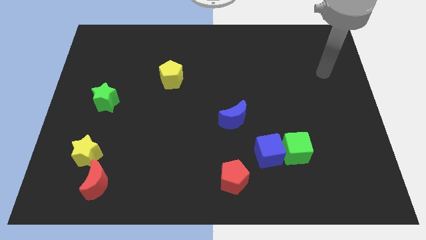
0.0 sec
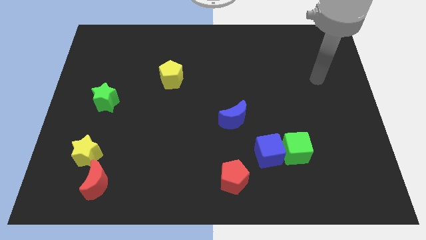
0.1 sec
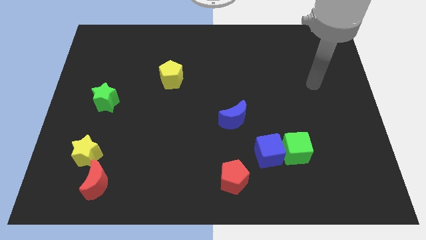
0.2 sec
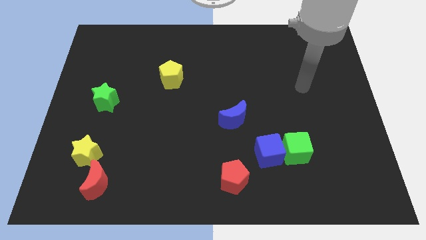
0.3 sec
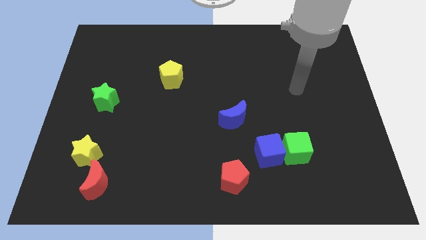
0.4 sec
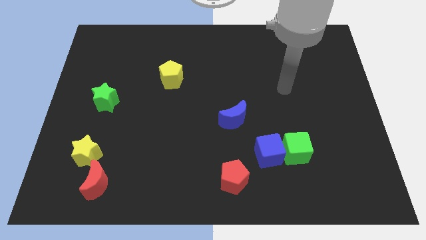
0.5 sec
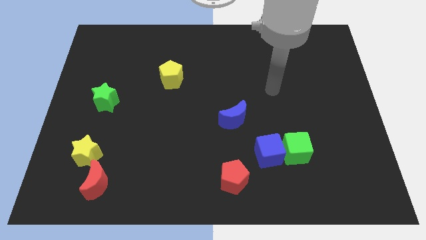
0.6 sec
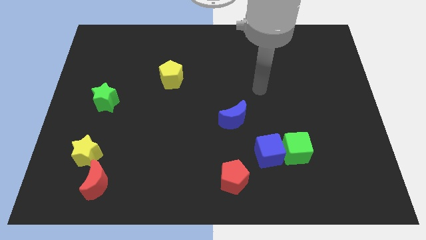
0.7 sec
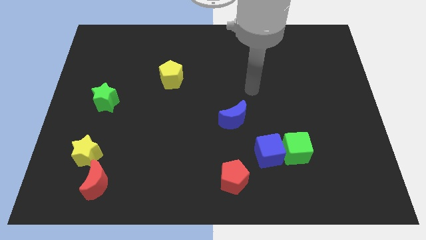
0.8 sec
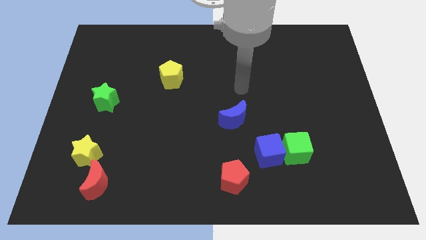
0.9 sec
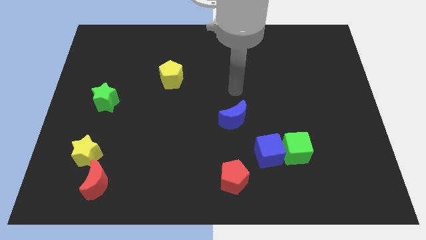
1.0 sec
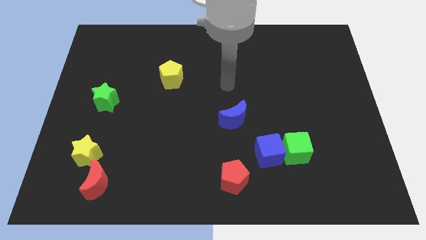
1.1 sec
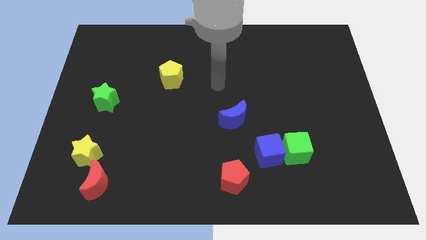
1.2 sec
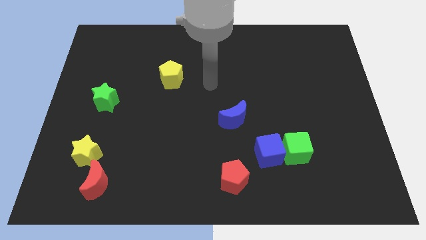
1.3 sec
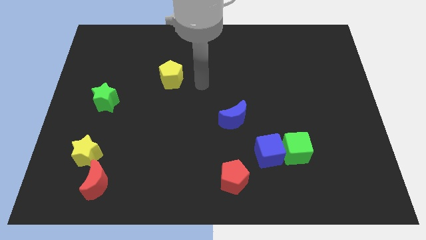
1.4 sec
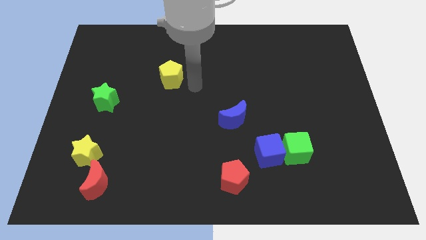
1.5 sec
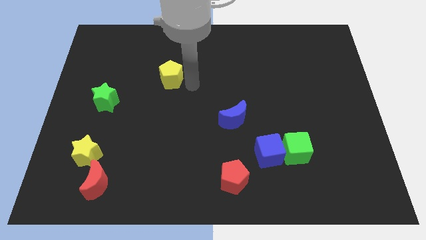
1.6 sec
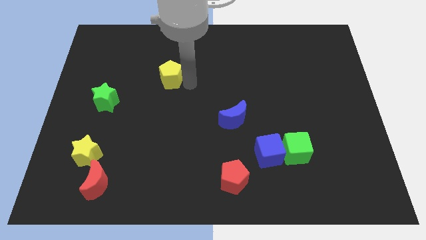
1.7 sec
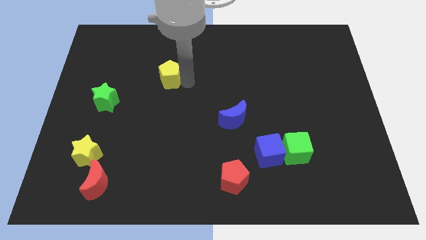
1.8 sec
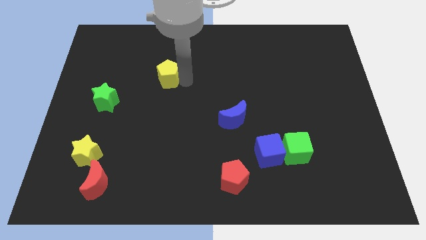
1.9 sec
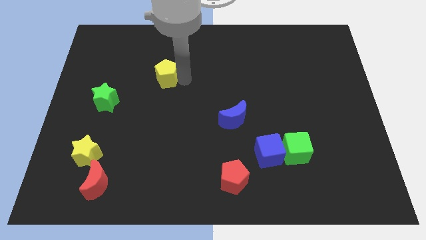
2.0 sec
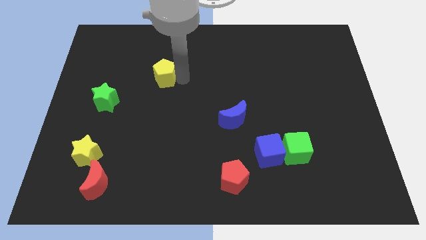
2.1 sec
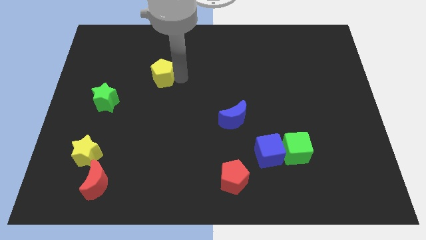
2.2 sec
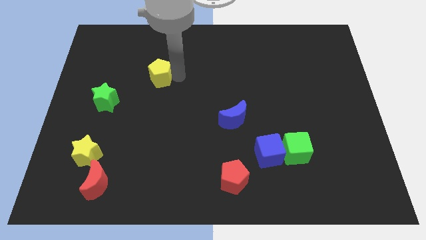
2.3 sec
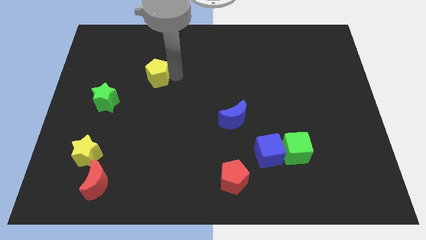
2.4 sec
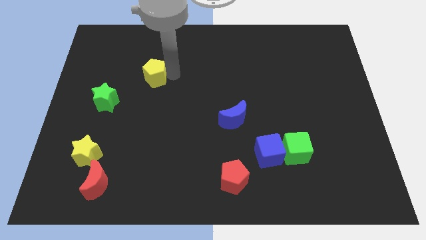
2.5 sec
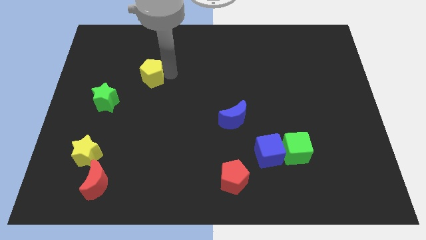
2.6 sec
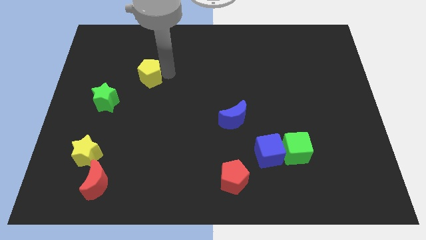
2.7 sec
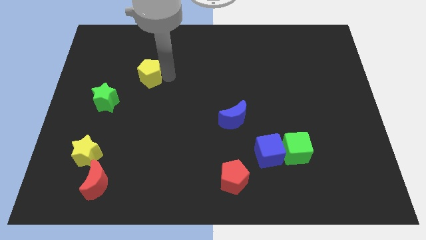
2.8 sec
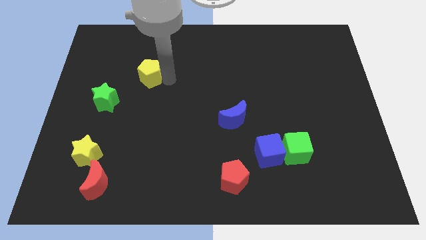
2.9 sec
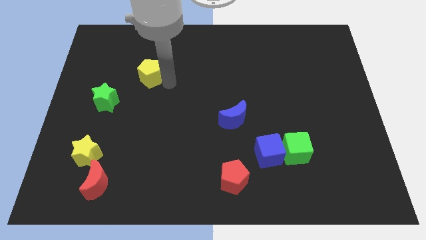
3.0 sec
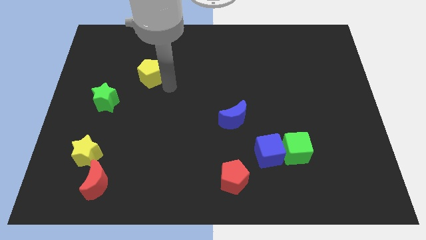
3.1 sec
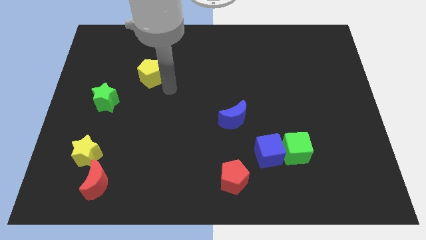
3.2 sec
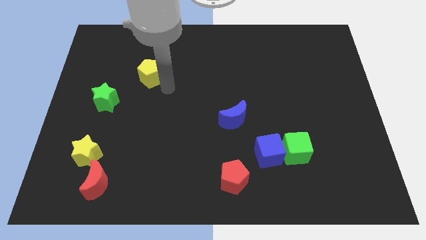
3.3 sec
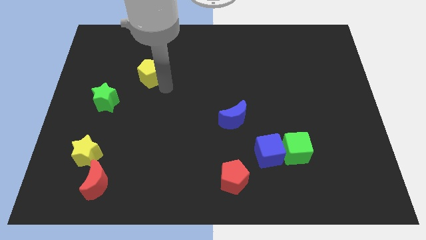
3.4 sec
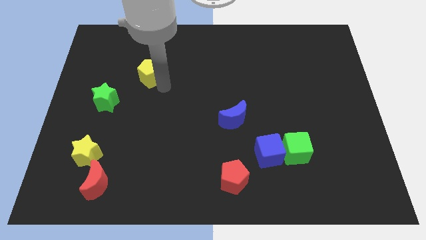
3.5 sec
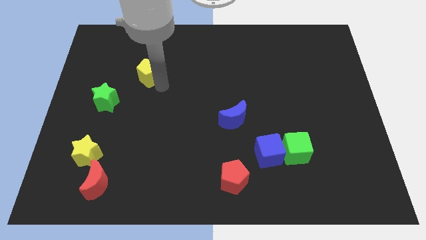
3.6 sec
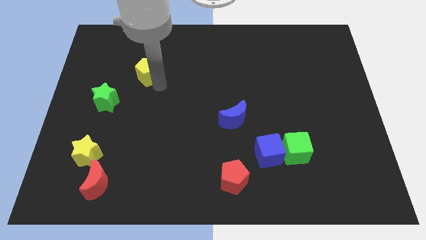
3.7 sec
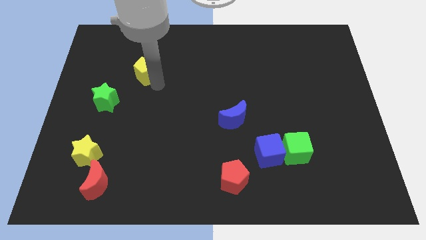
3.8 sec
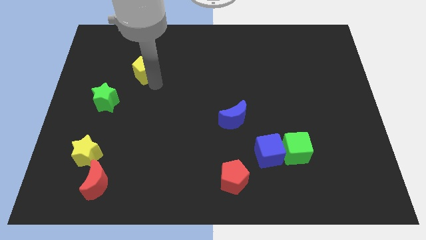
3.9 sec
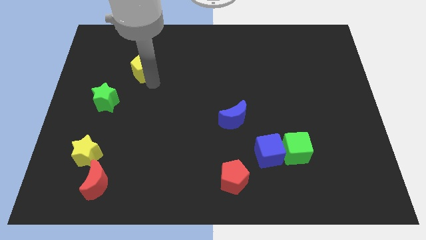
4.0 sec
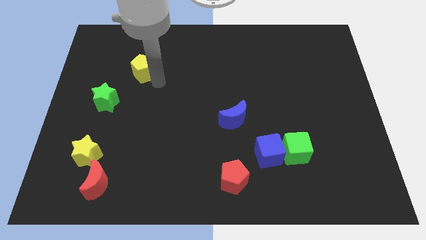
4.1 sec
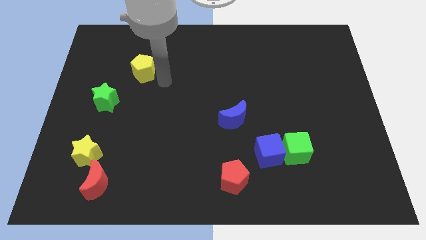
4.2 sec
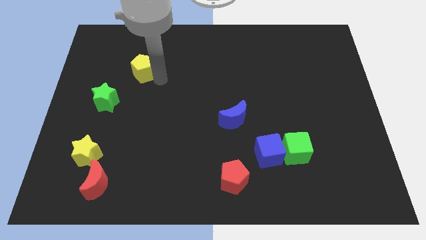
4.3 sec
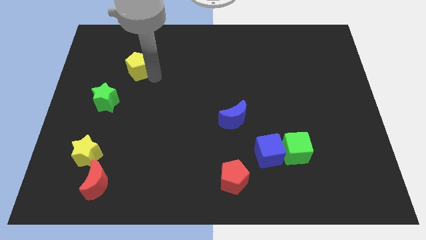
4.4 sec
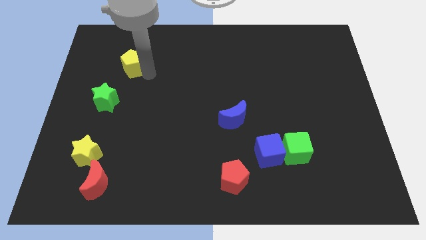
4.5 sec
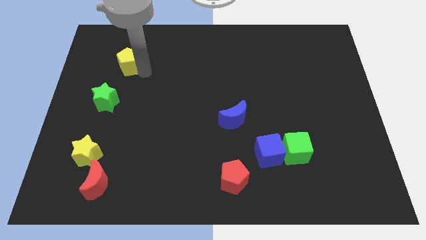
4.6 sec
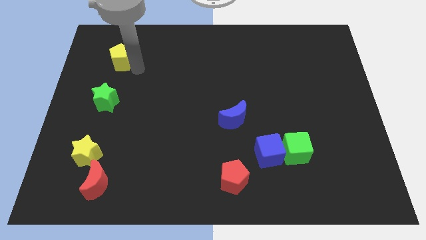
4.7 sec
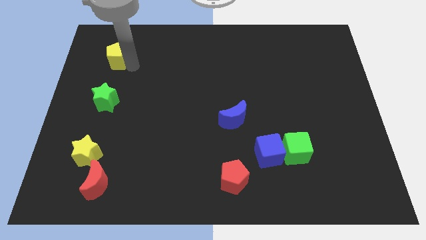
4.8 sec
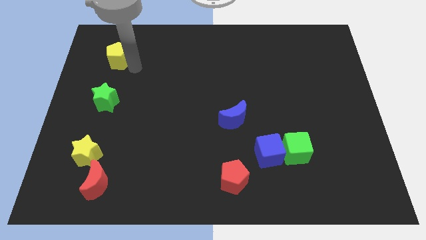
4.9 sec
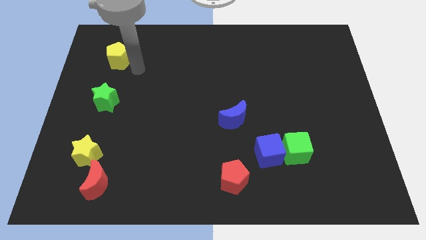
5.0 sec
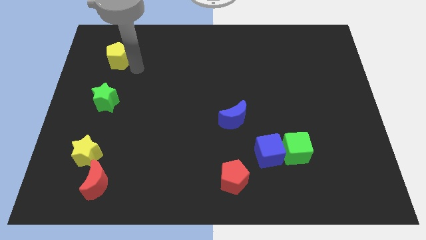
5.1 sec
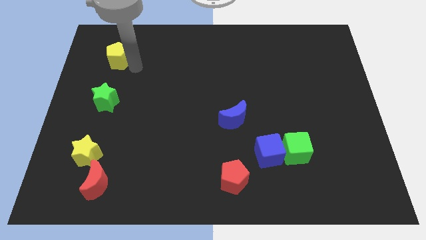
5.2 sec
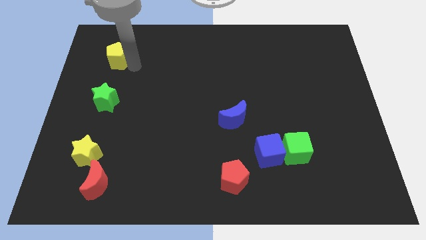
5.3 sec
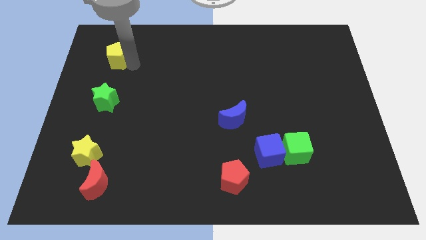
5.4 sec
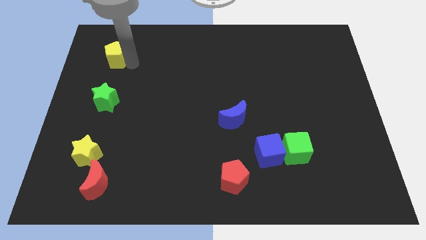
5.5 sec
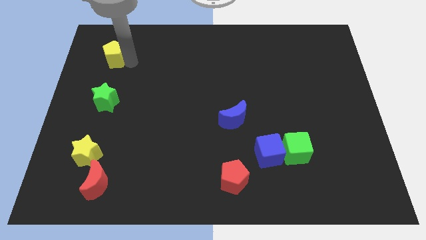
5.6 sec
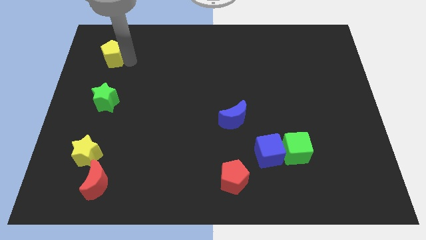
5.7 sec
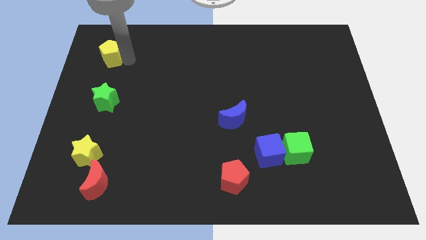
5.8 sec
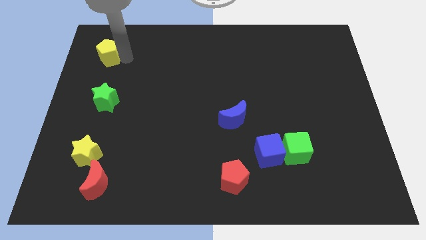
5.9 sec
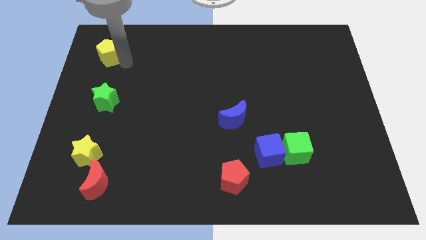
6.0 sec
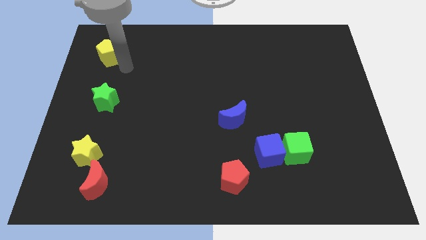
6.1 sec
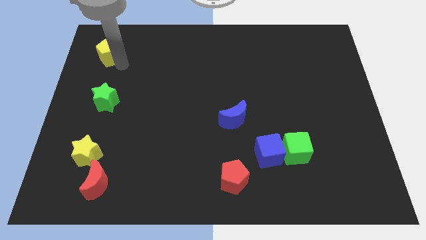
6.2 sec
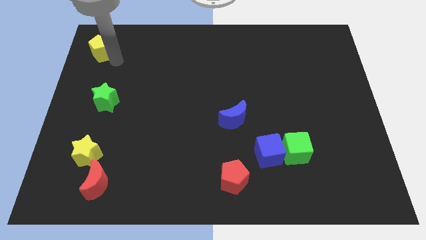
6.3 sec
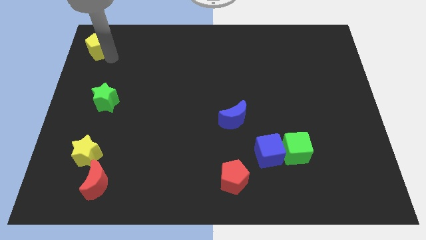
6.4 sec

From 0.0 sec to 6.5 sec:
put the yellow pentagon to the top left corner

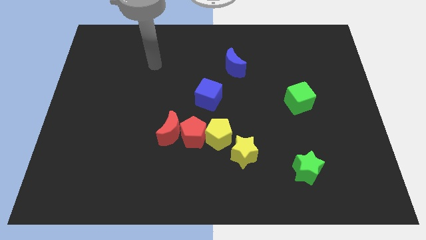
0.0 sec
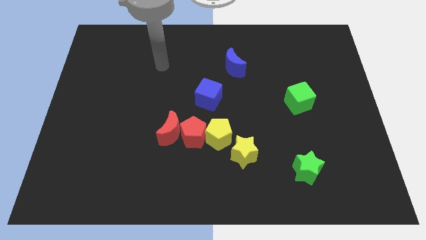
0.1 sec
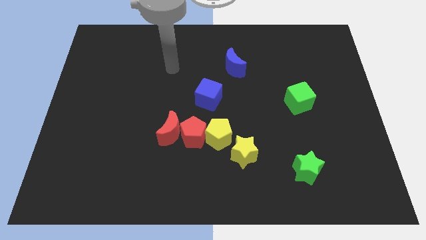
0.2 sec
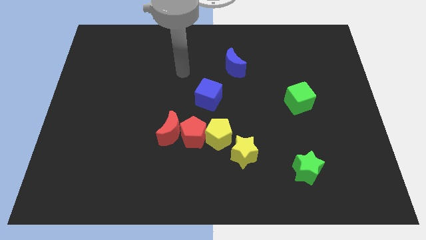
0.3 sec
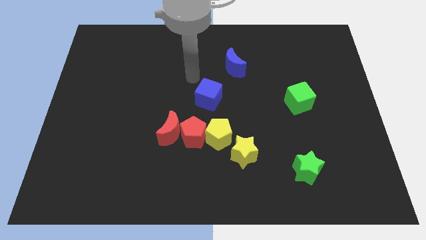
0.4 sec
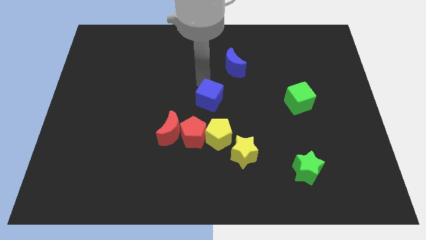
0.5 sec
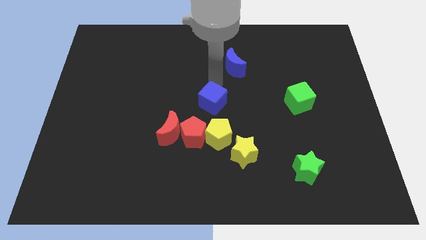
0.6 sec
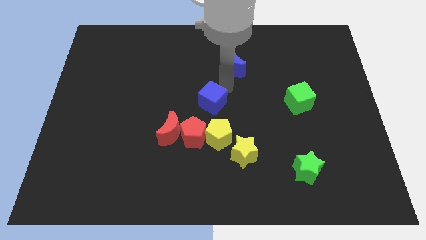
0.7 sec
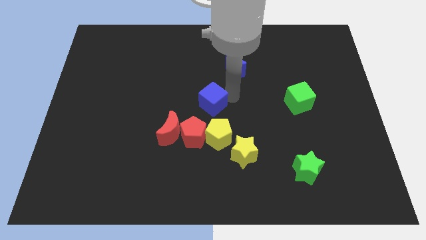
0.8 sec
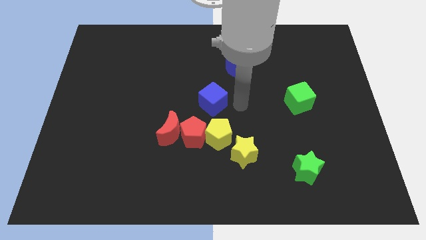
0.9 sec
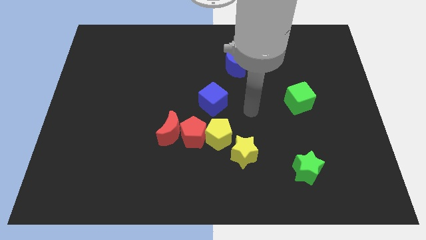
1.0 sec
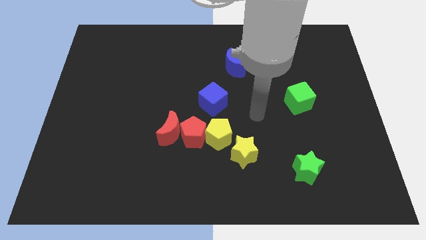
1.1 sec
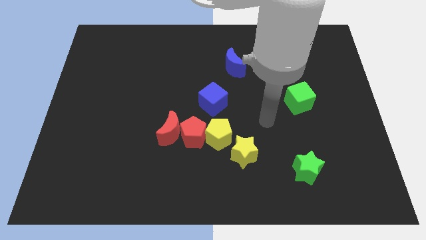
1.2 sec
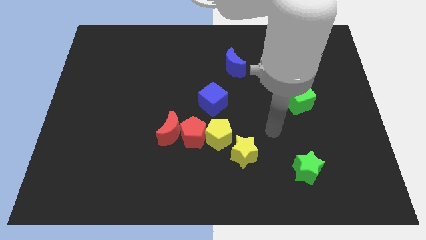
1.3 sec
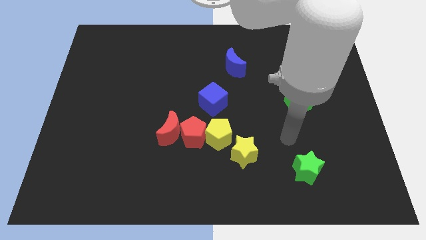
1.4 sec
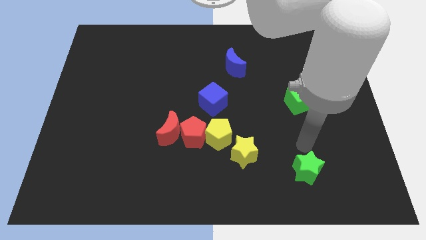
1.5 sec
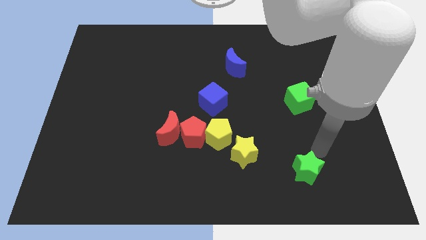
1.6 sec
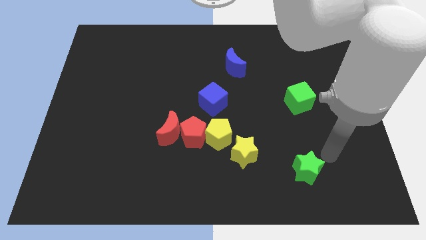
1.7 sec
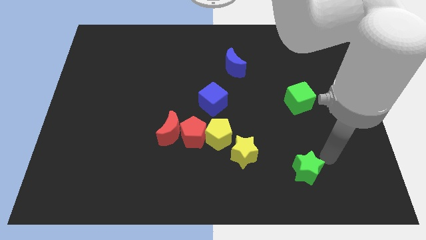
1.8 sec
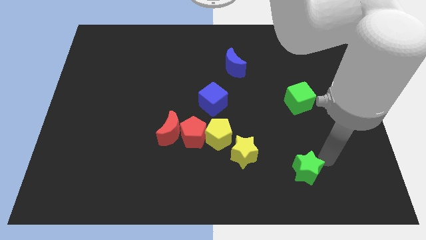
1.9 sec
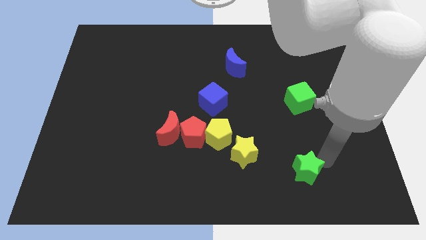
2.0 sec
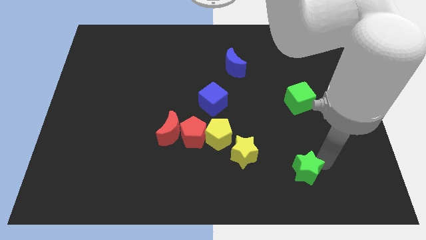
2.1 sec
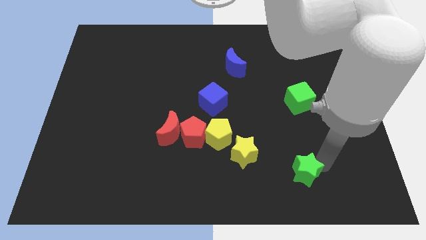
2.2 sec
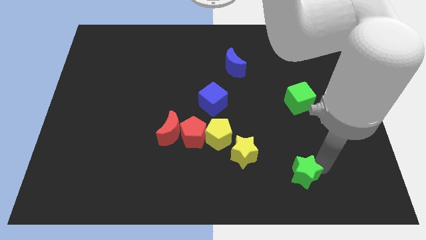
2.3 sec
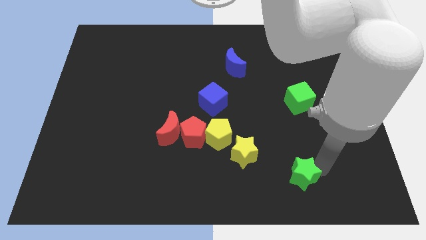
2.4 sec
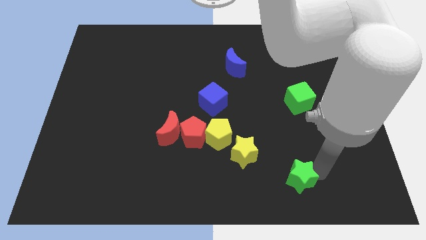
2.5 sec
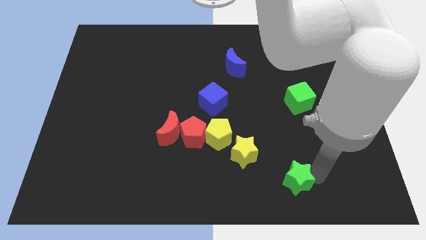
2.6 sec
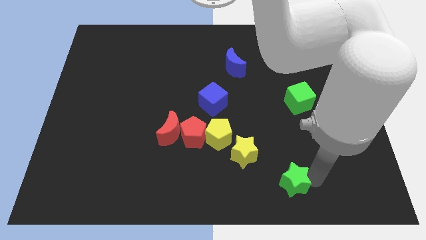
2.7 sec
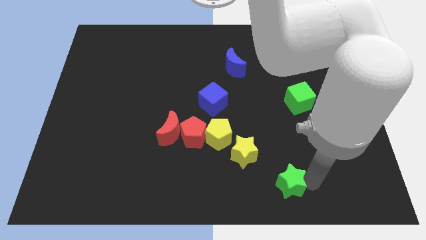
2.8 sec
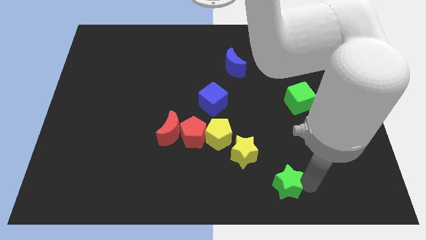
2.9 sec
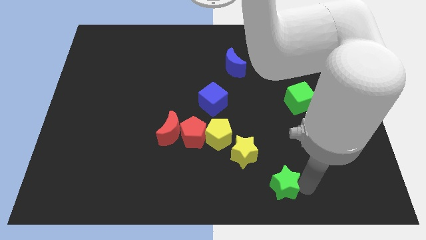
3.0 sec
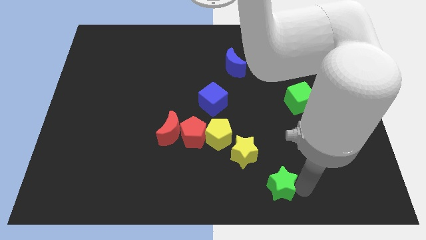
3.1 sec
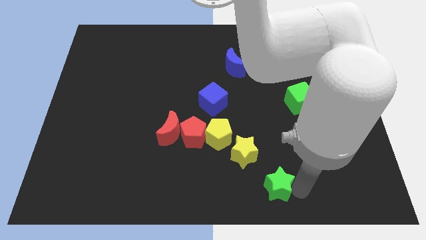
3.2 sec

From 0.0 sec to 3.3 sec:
push the green star to the bottom
